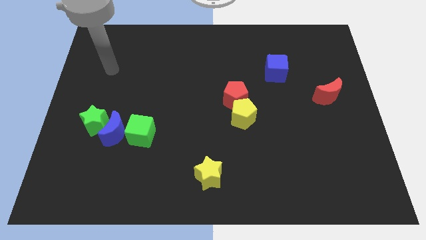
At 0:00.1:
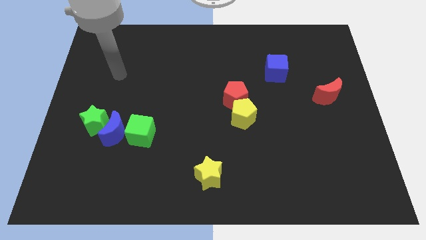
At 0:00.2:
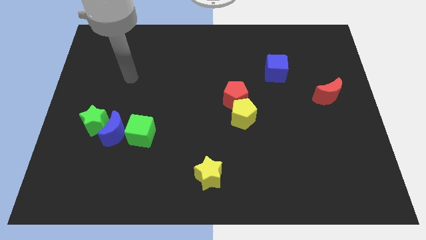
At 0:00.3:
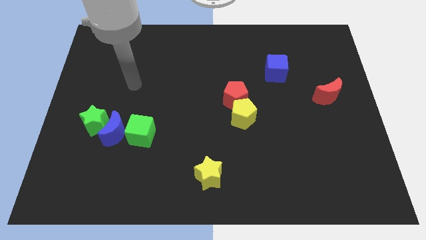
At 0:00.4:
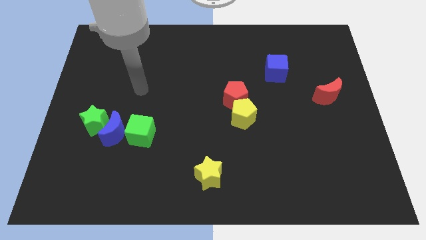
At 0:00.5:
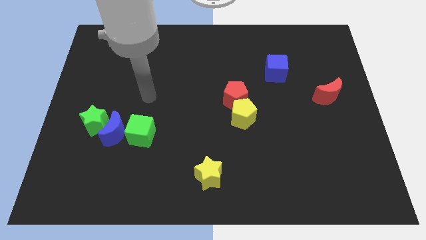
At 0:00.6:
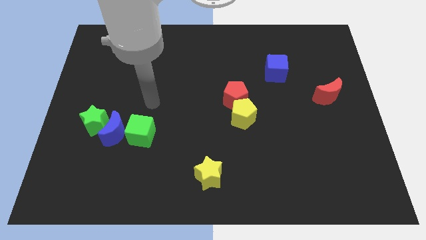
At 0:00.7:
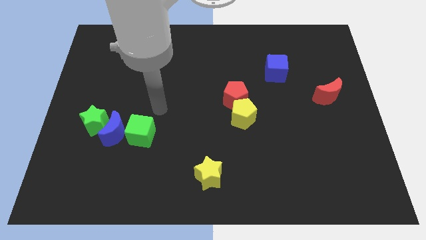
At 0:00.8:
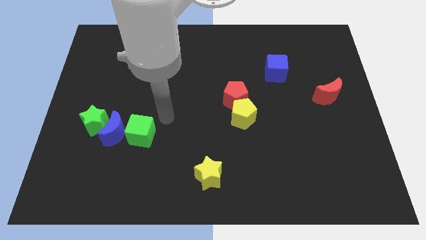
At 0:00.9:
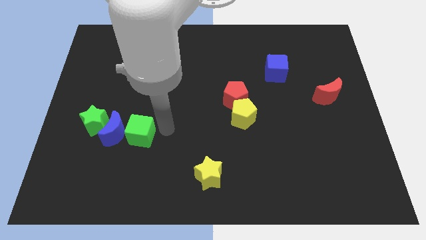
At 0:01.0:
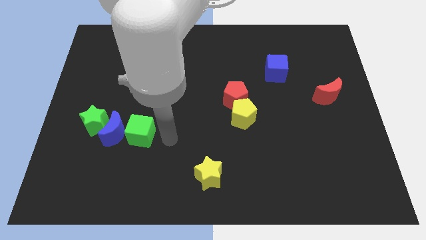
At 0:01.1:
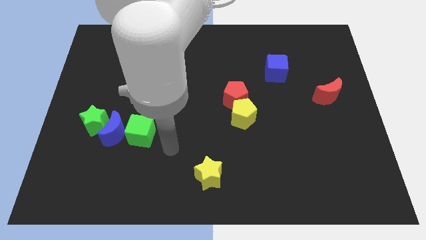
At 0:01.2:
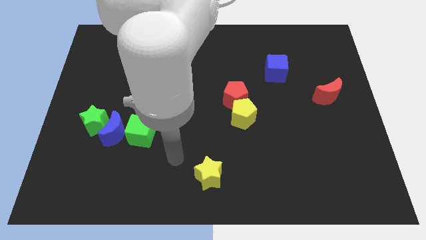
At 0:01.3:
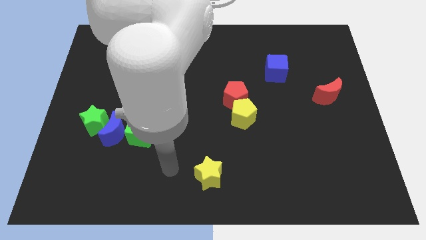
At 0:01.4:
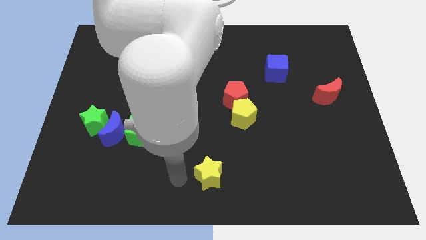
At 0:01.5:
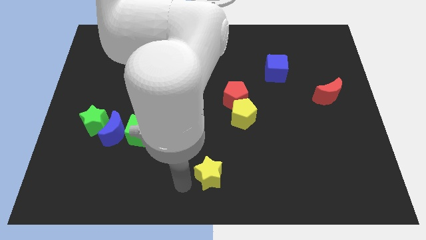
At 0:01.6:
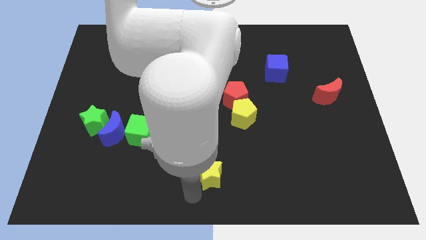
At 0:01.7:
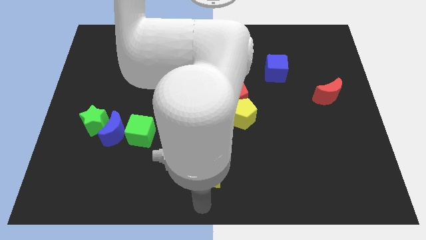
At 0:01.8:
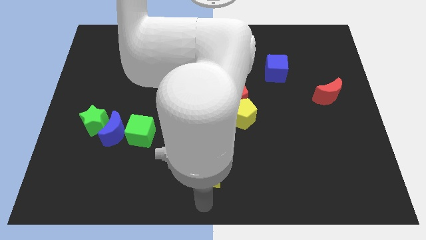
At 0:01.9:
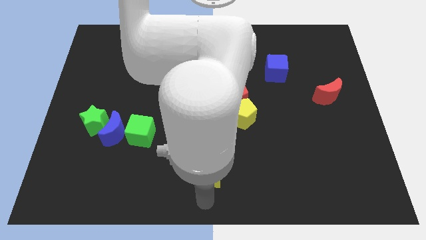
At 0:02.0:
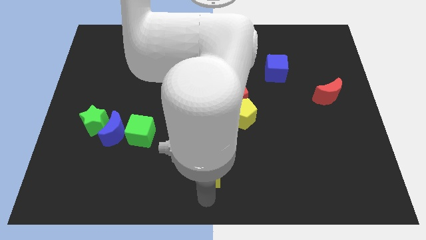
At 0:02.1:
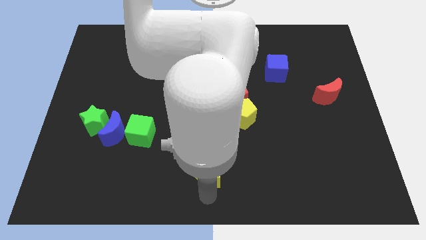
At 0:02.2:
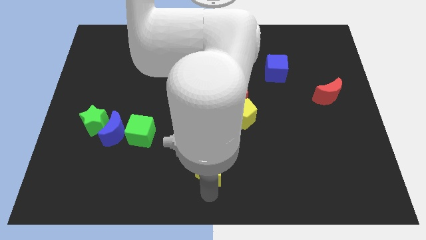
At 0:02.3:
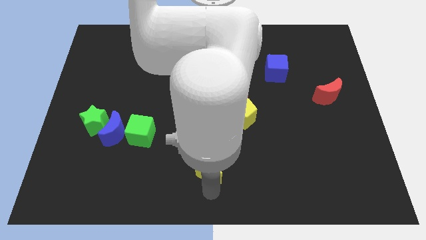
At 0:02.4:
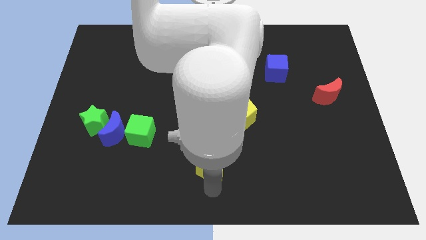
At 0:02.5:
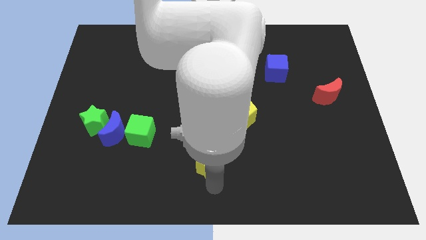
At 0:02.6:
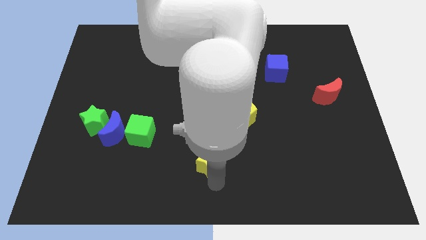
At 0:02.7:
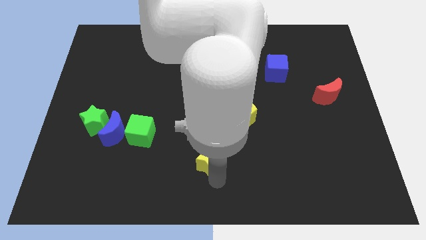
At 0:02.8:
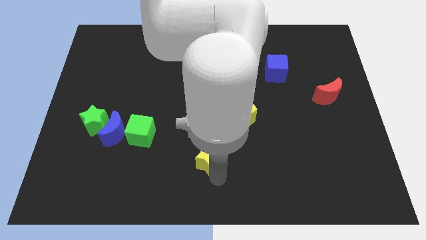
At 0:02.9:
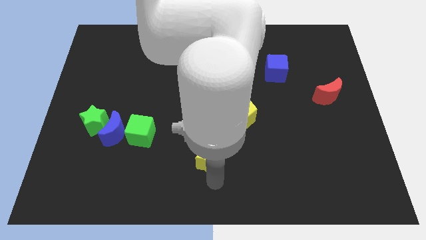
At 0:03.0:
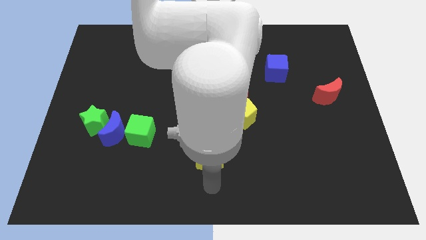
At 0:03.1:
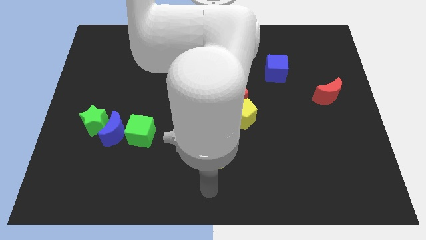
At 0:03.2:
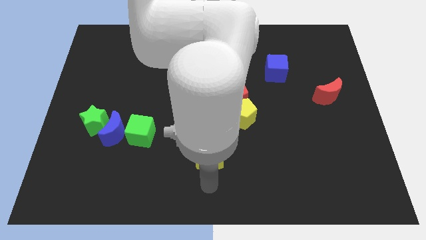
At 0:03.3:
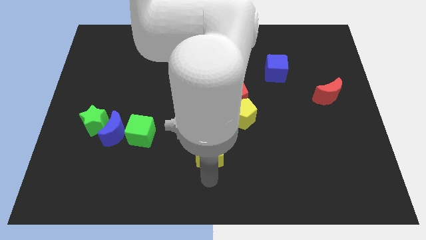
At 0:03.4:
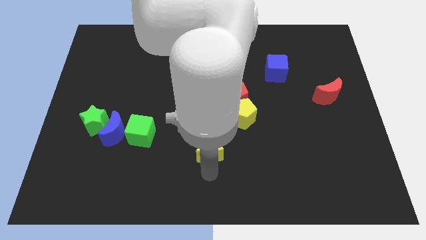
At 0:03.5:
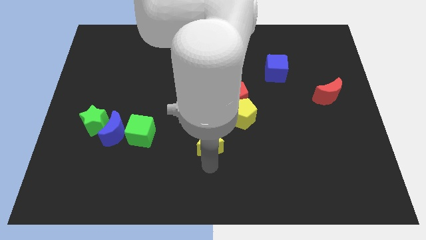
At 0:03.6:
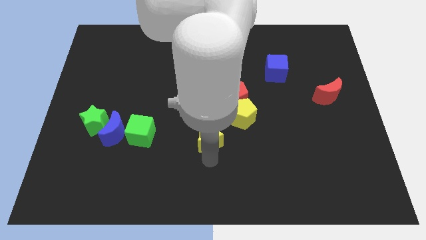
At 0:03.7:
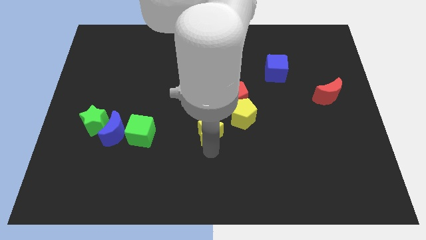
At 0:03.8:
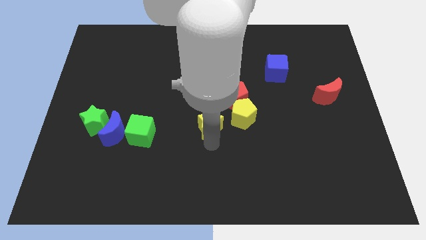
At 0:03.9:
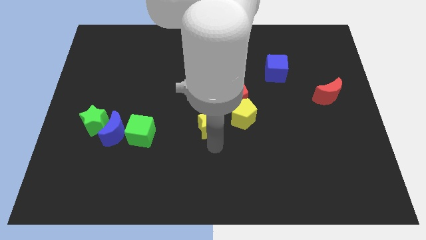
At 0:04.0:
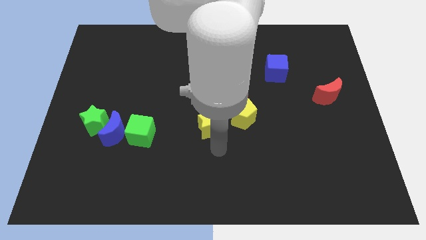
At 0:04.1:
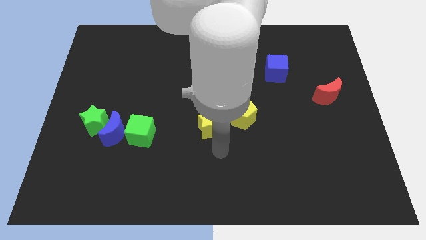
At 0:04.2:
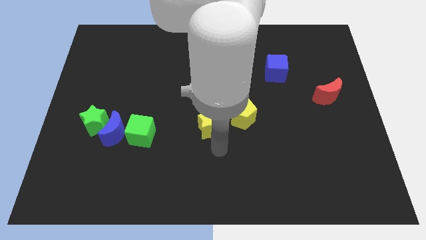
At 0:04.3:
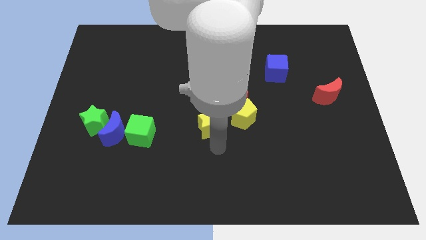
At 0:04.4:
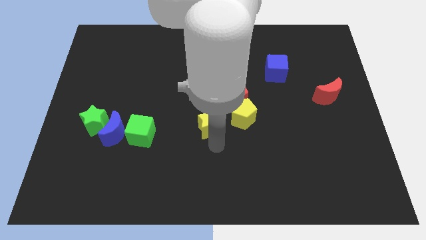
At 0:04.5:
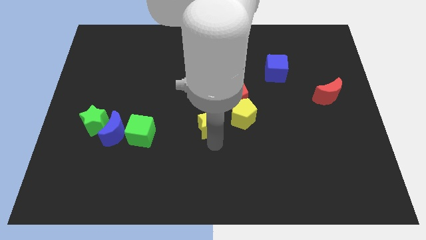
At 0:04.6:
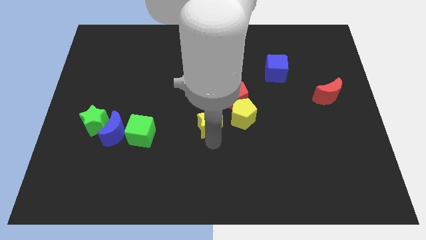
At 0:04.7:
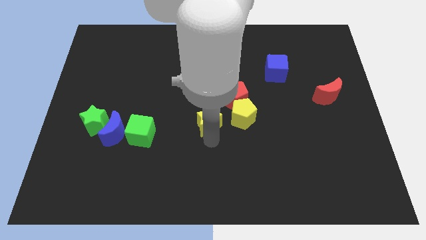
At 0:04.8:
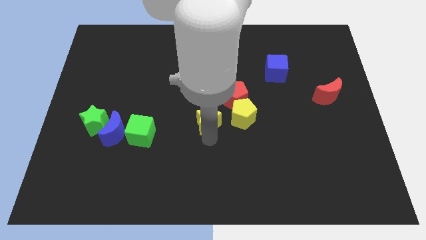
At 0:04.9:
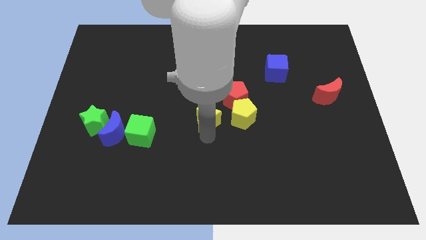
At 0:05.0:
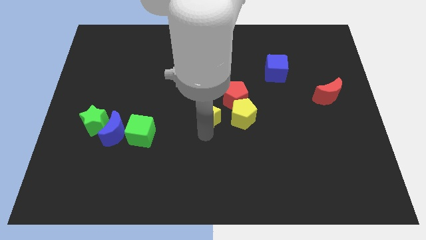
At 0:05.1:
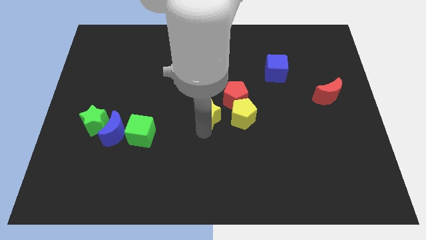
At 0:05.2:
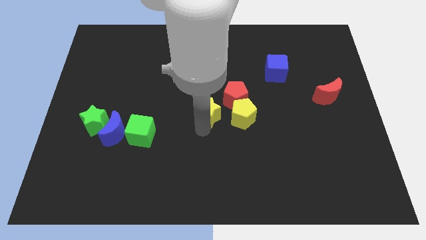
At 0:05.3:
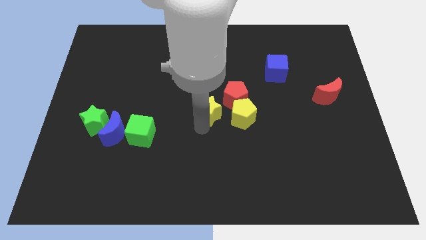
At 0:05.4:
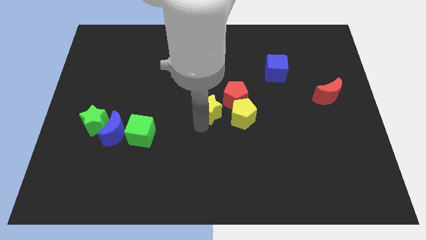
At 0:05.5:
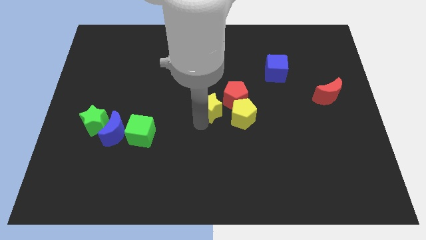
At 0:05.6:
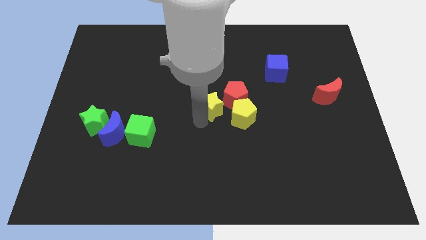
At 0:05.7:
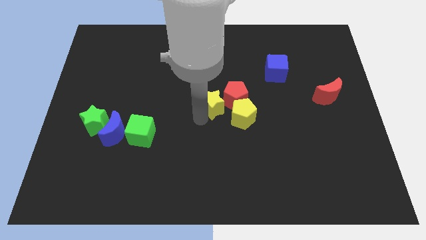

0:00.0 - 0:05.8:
push the yellow star close to the red pentagon
